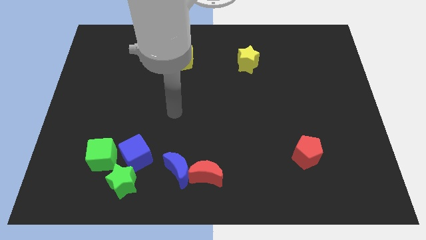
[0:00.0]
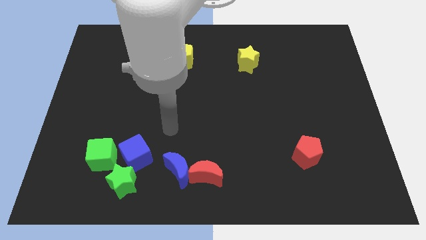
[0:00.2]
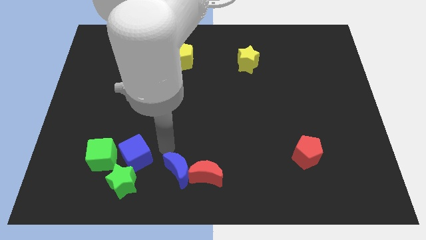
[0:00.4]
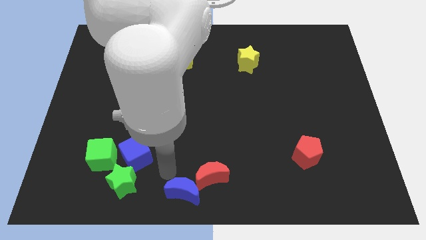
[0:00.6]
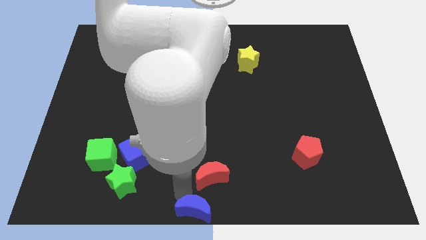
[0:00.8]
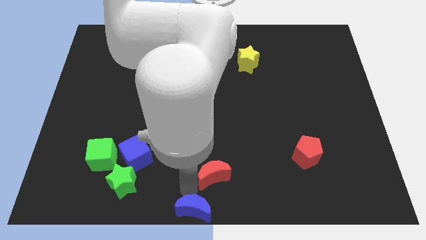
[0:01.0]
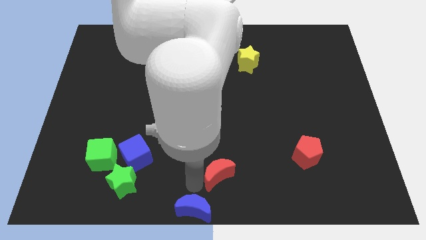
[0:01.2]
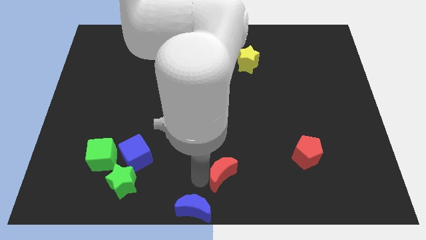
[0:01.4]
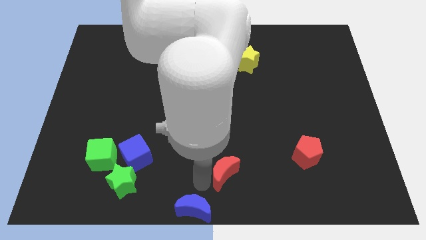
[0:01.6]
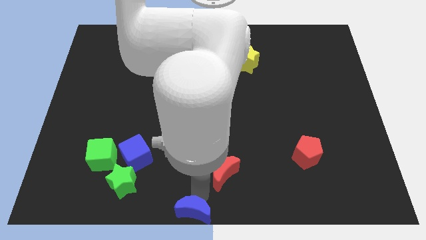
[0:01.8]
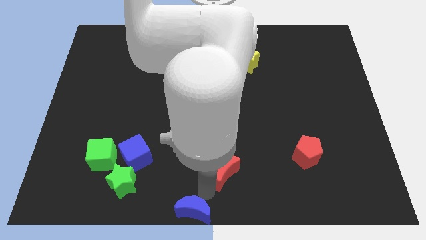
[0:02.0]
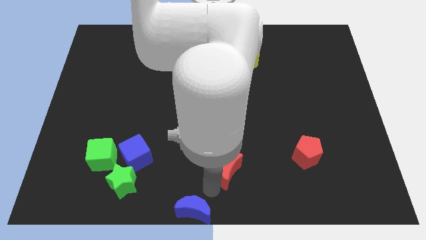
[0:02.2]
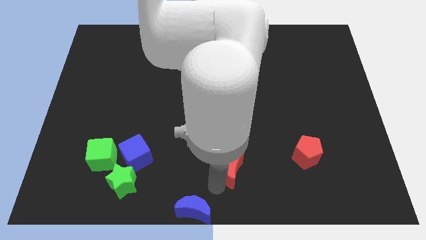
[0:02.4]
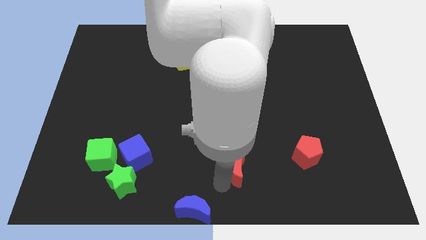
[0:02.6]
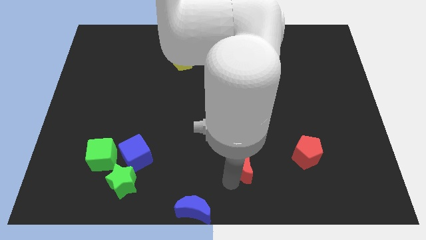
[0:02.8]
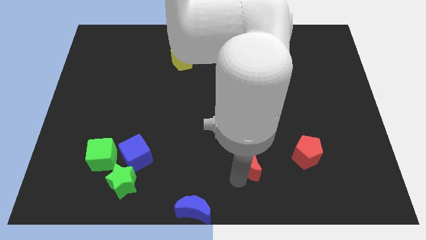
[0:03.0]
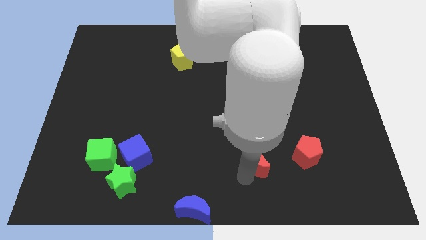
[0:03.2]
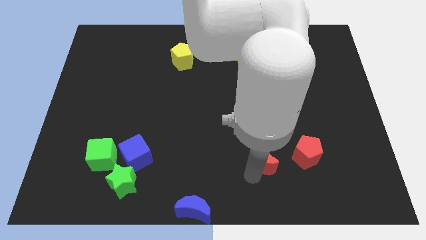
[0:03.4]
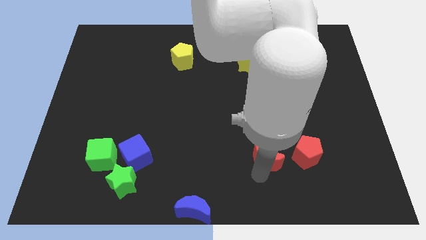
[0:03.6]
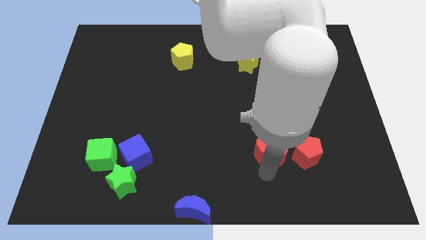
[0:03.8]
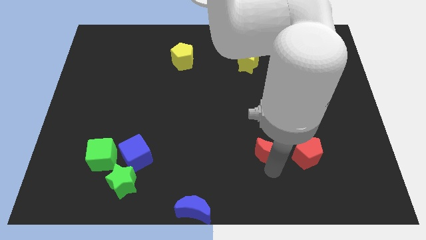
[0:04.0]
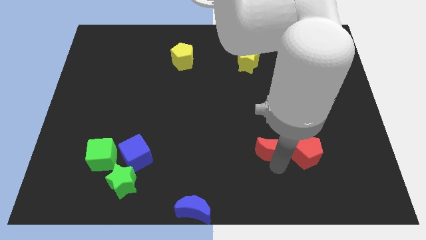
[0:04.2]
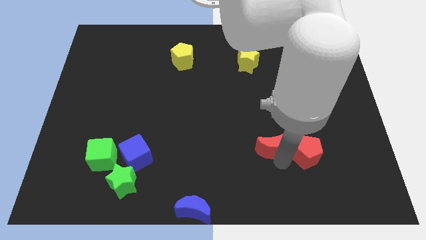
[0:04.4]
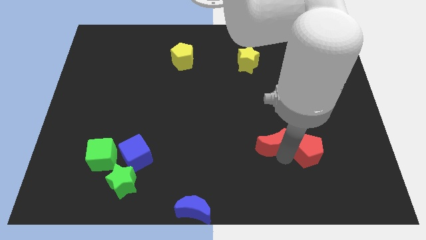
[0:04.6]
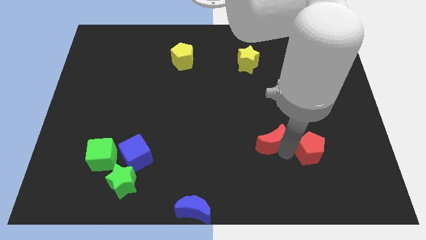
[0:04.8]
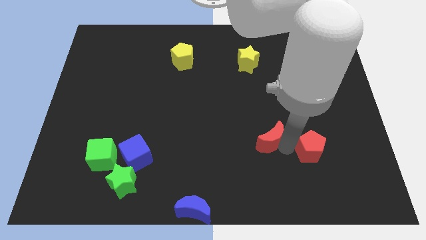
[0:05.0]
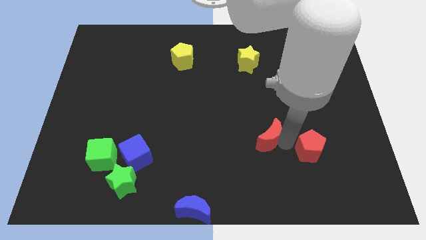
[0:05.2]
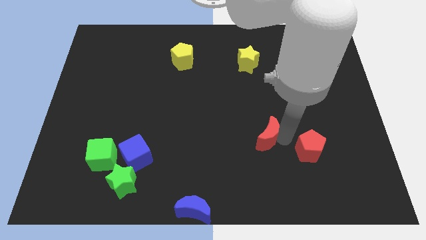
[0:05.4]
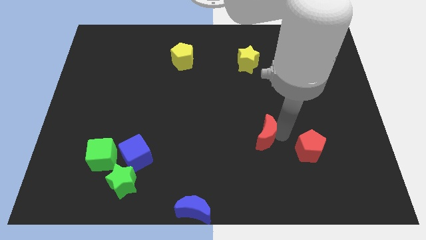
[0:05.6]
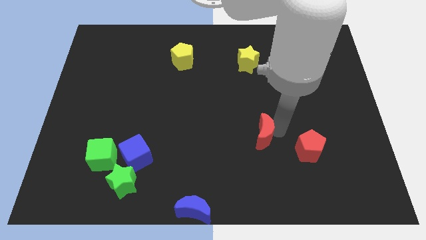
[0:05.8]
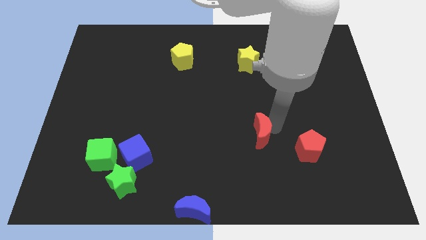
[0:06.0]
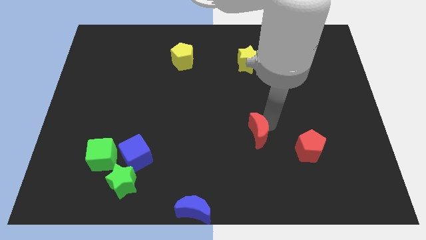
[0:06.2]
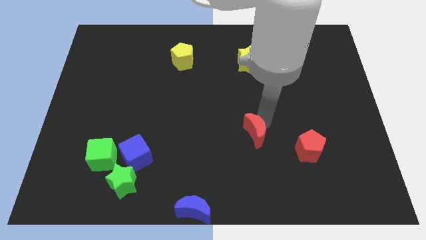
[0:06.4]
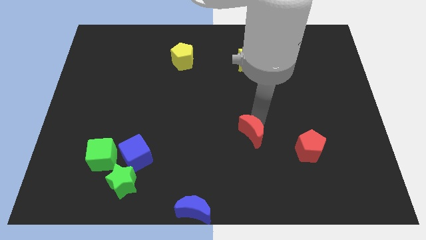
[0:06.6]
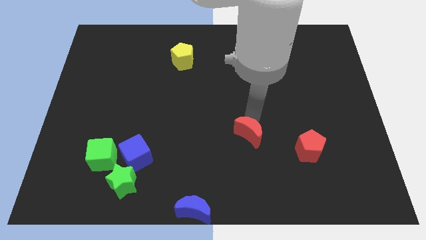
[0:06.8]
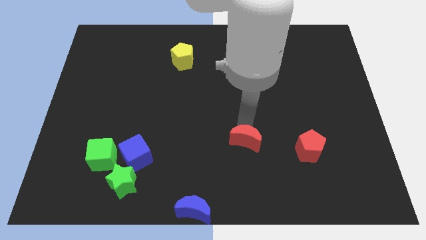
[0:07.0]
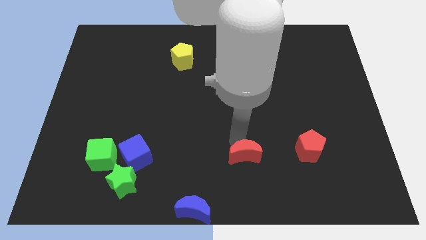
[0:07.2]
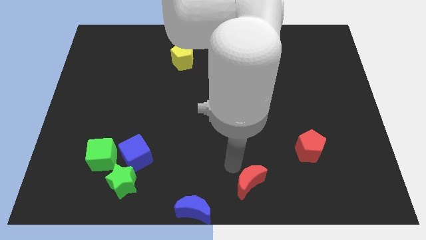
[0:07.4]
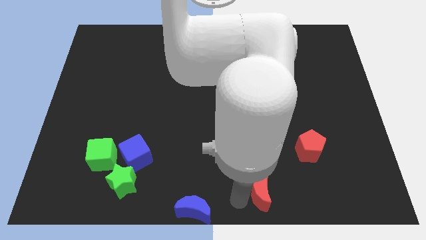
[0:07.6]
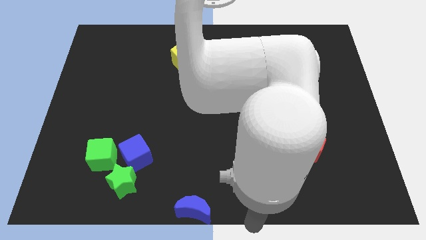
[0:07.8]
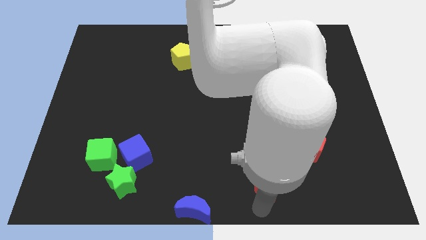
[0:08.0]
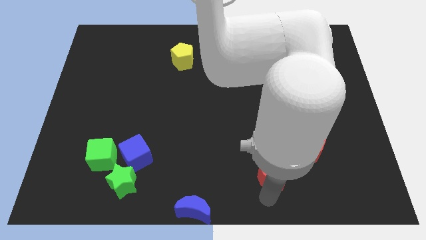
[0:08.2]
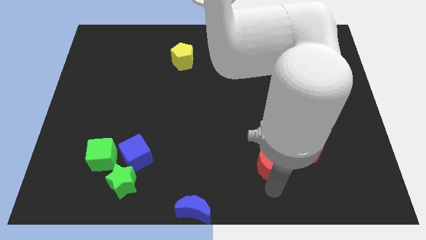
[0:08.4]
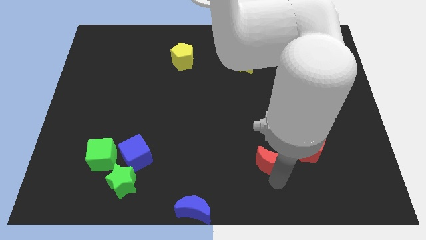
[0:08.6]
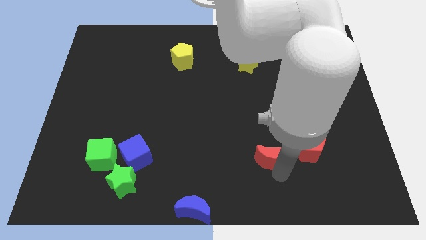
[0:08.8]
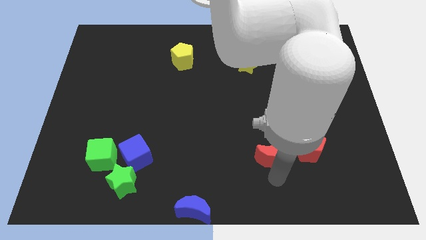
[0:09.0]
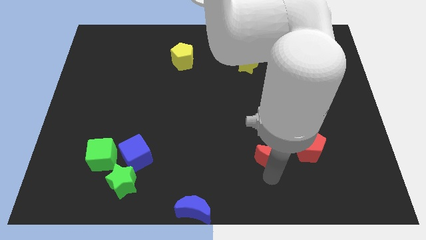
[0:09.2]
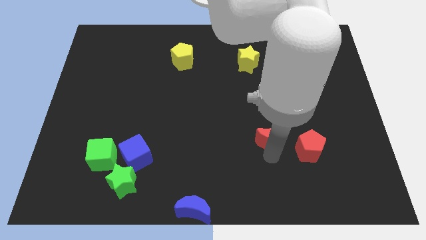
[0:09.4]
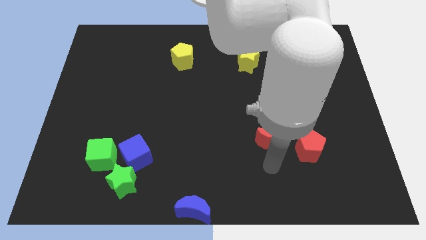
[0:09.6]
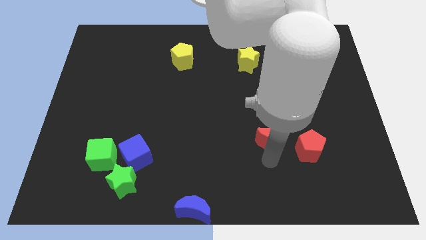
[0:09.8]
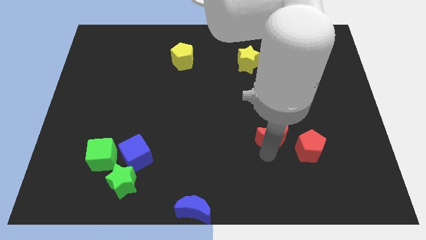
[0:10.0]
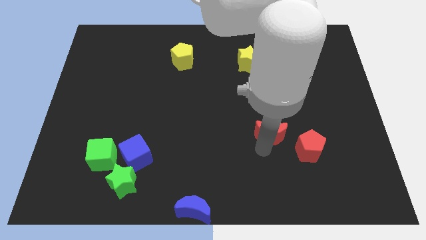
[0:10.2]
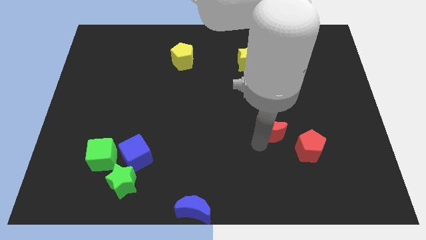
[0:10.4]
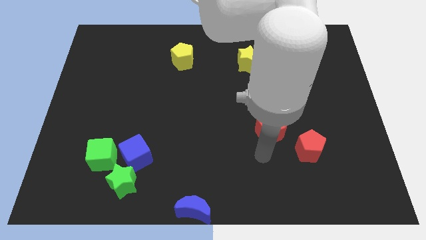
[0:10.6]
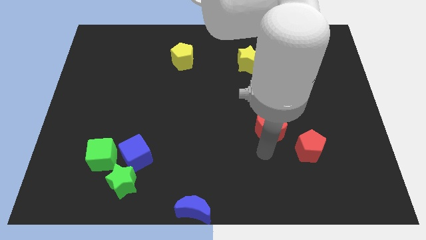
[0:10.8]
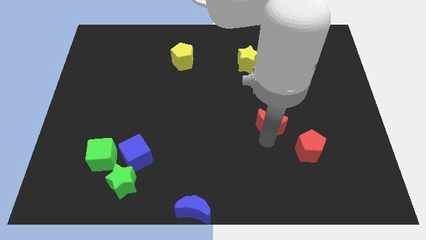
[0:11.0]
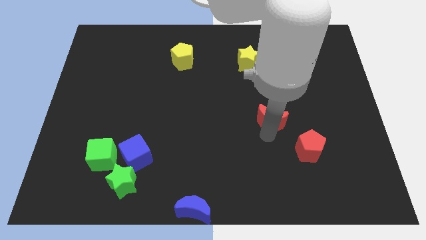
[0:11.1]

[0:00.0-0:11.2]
move the red moon upwards and to the right

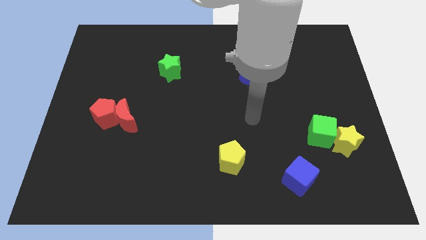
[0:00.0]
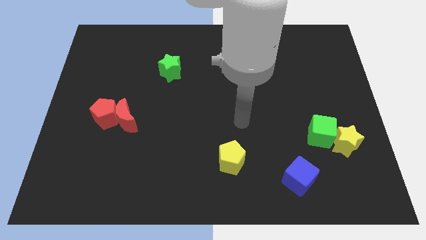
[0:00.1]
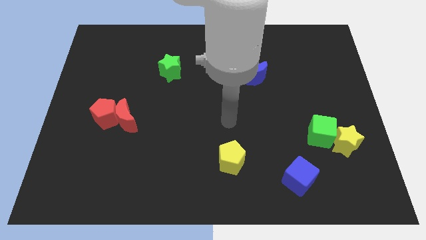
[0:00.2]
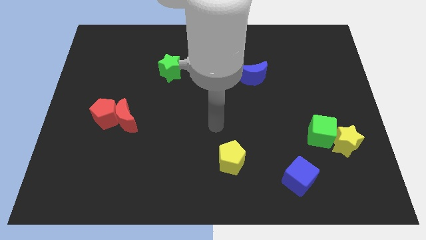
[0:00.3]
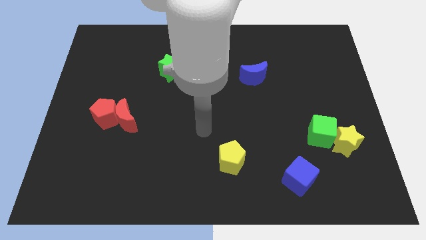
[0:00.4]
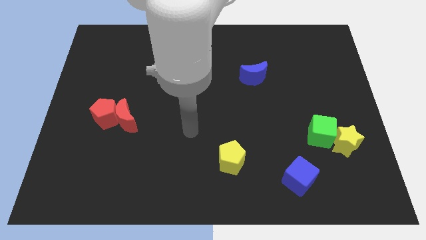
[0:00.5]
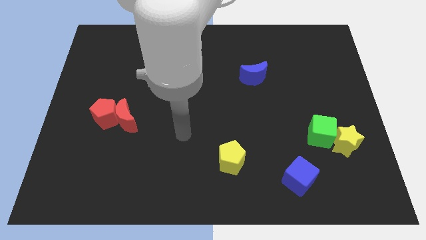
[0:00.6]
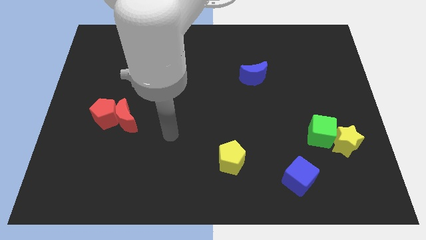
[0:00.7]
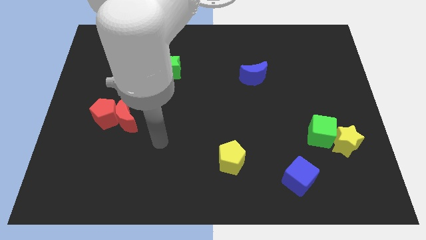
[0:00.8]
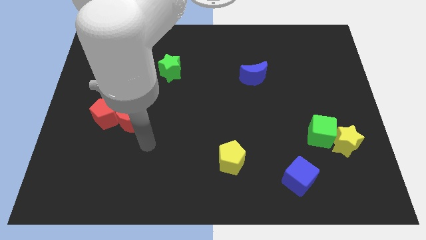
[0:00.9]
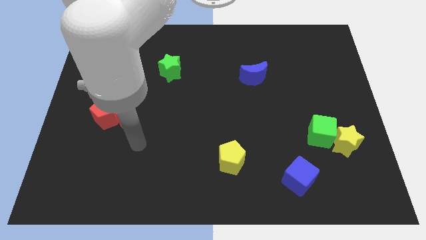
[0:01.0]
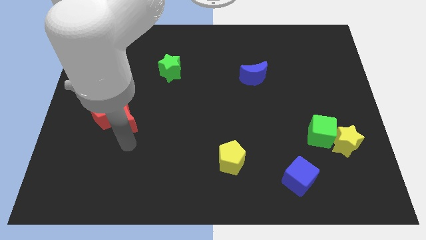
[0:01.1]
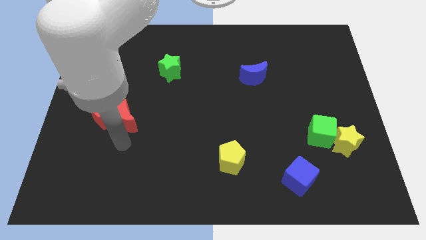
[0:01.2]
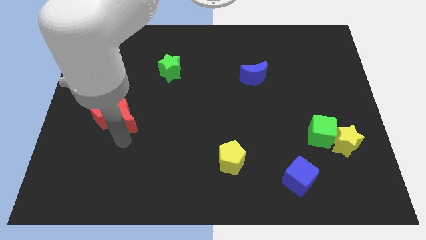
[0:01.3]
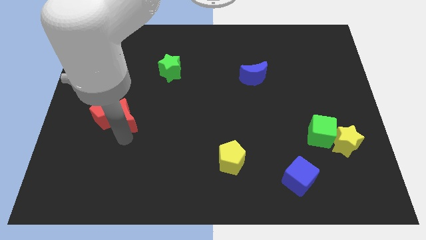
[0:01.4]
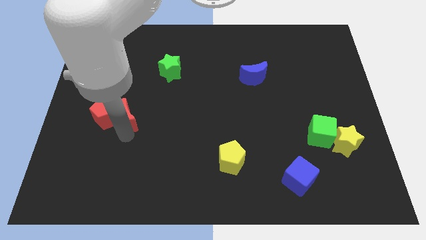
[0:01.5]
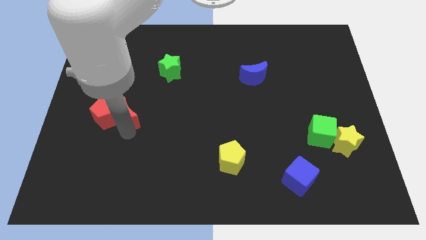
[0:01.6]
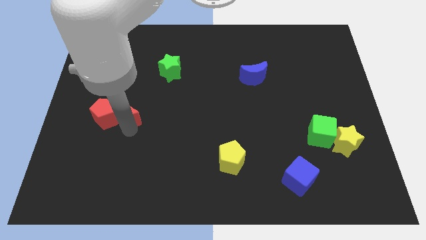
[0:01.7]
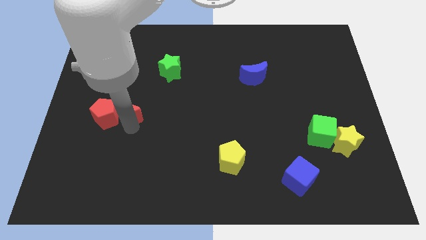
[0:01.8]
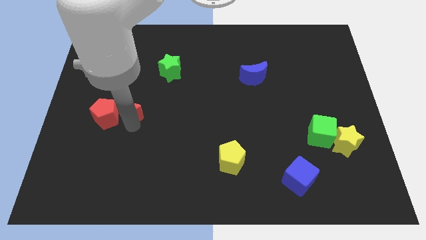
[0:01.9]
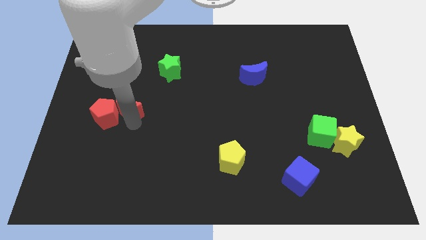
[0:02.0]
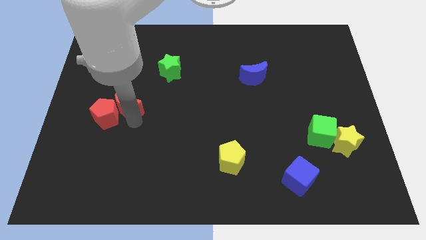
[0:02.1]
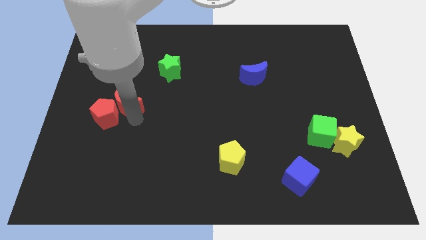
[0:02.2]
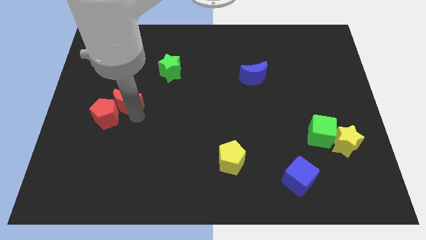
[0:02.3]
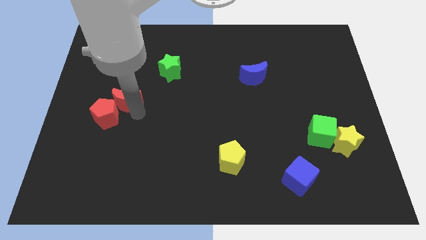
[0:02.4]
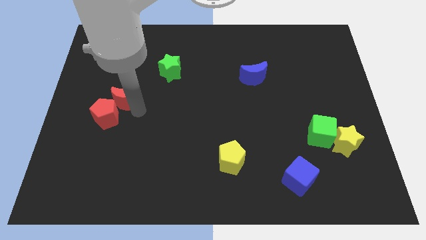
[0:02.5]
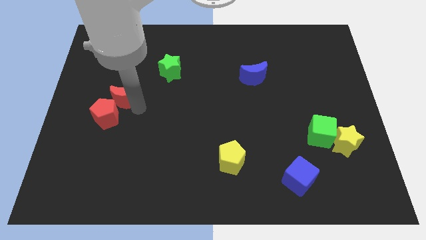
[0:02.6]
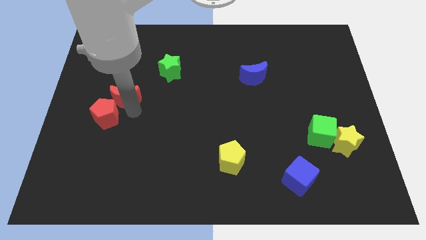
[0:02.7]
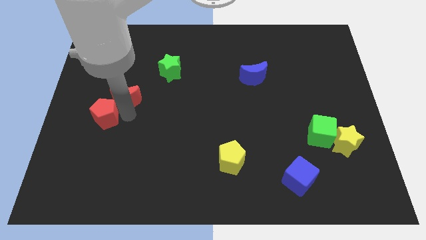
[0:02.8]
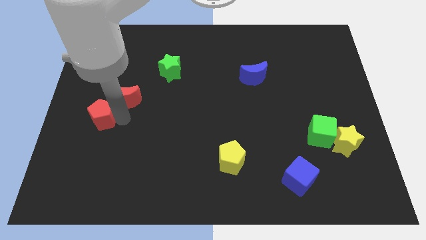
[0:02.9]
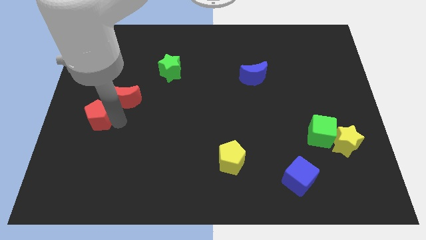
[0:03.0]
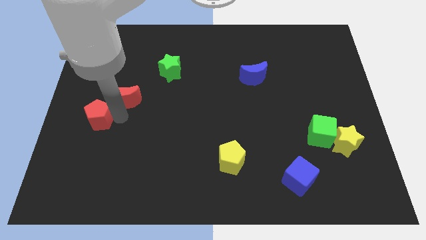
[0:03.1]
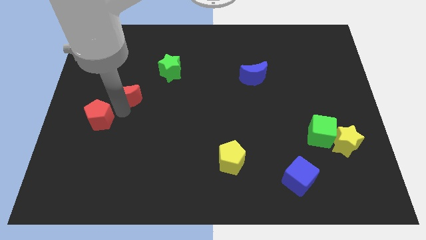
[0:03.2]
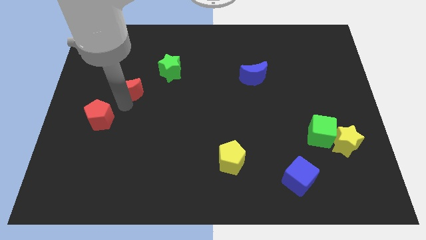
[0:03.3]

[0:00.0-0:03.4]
slightly slide the red moon up
